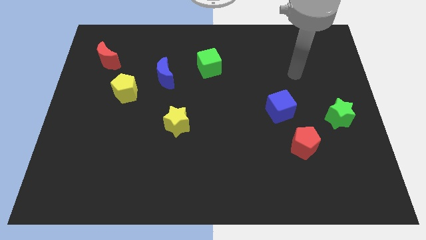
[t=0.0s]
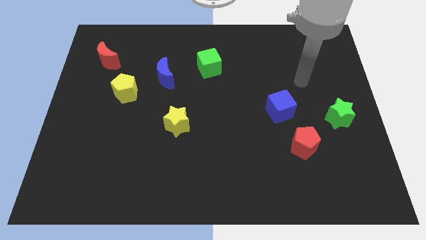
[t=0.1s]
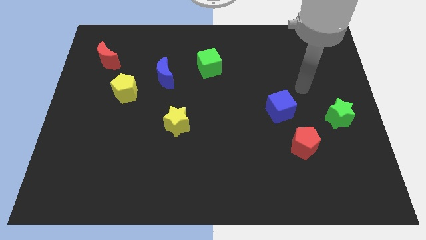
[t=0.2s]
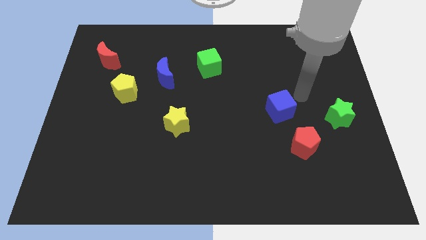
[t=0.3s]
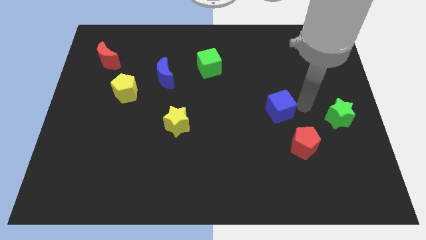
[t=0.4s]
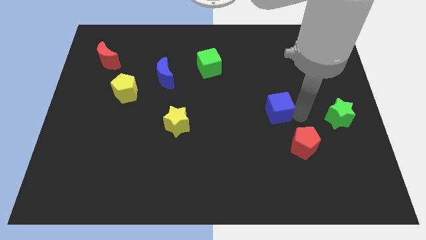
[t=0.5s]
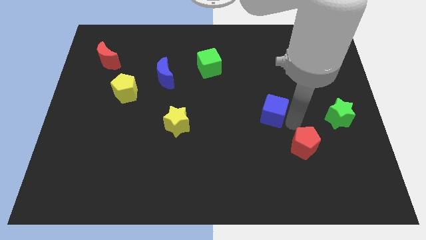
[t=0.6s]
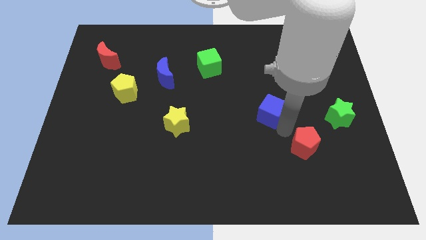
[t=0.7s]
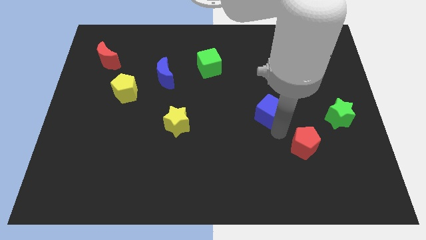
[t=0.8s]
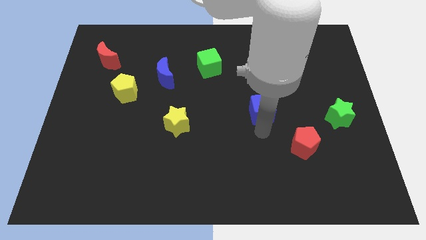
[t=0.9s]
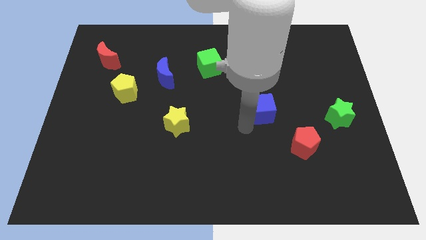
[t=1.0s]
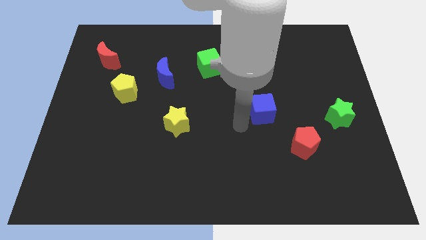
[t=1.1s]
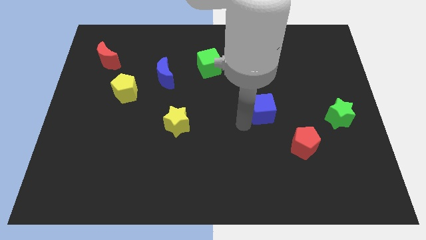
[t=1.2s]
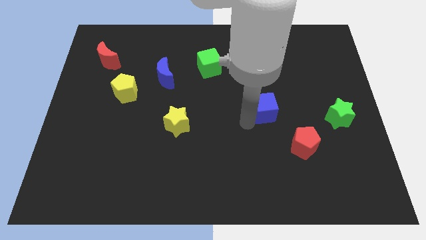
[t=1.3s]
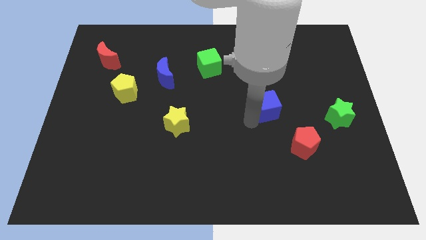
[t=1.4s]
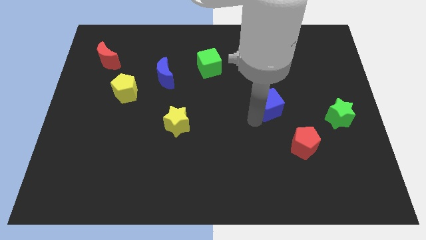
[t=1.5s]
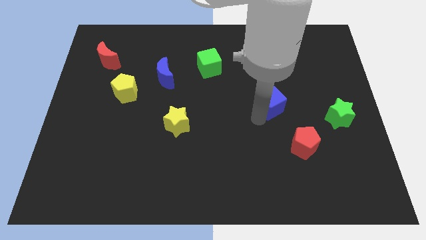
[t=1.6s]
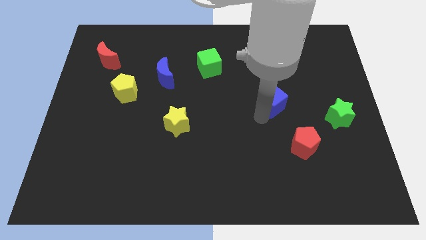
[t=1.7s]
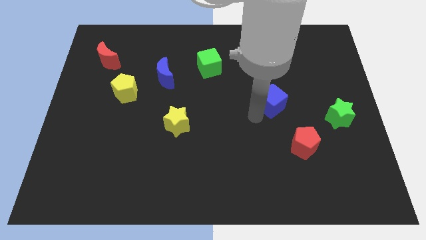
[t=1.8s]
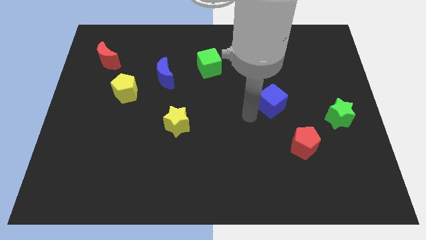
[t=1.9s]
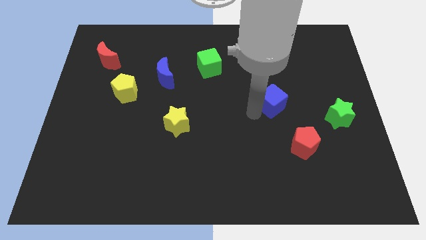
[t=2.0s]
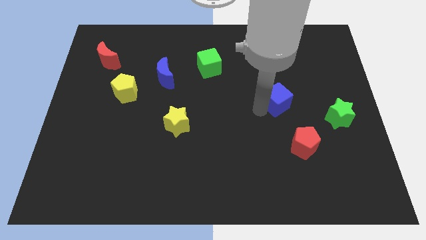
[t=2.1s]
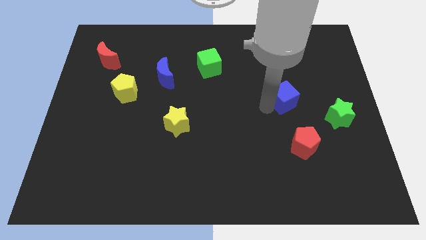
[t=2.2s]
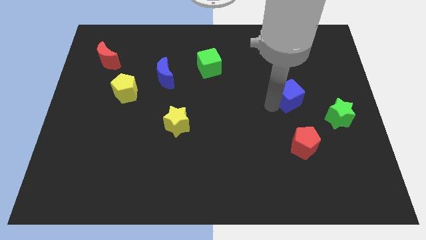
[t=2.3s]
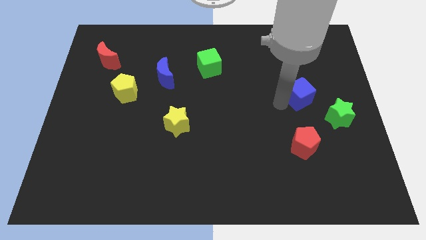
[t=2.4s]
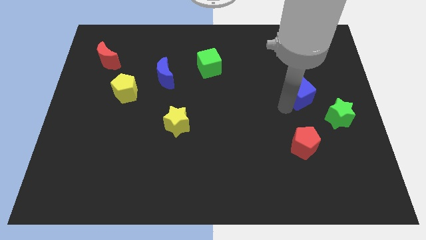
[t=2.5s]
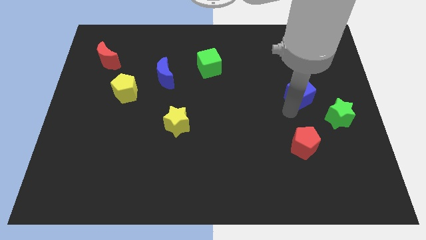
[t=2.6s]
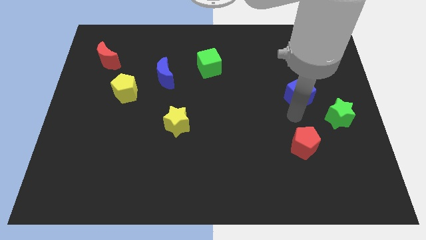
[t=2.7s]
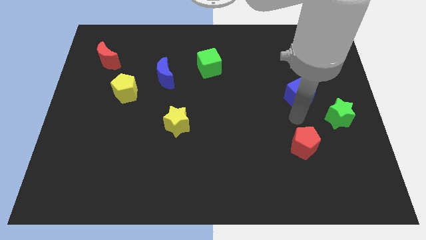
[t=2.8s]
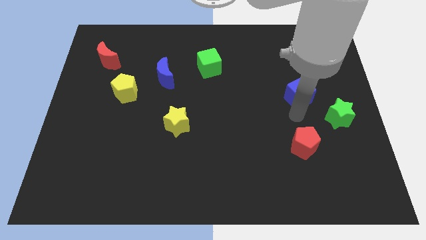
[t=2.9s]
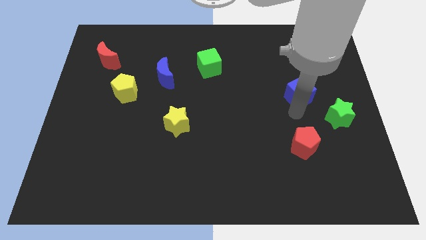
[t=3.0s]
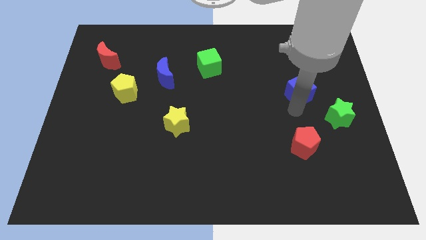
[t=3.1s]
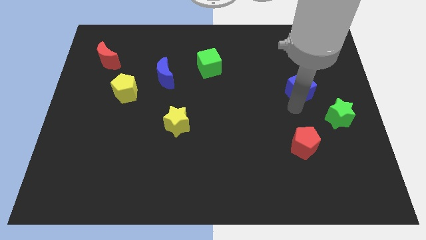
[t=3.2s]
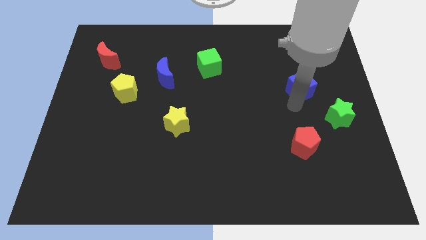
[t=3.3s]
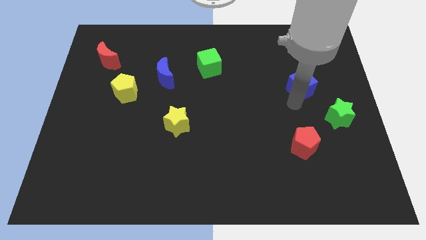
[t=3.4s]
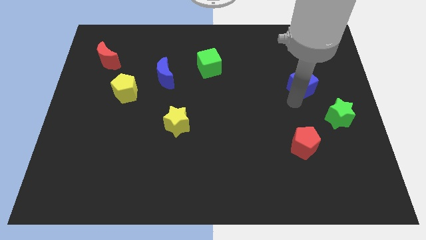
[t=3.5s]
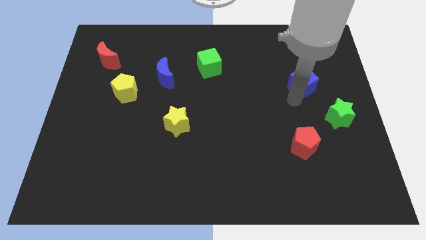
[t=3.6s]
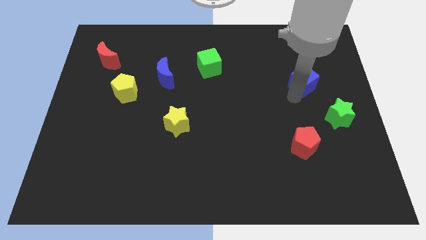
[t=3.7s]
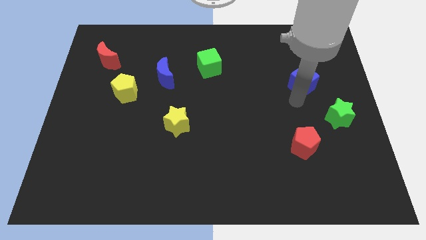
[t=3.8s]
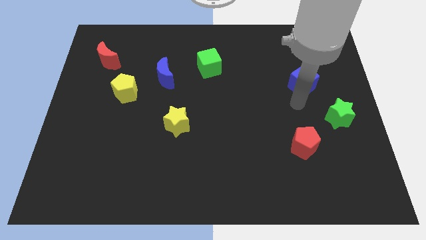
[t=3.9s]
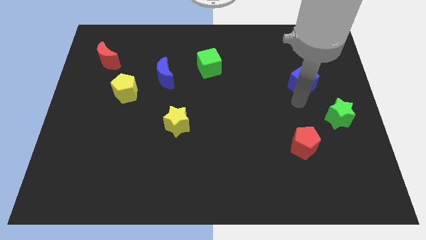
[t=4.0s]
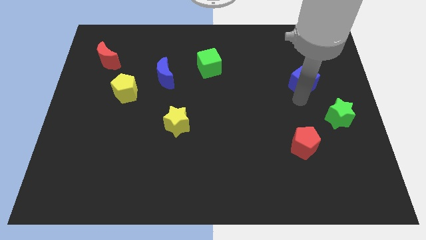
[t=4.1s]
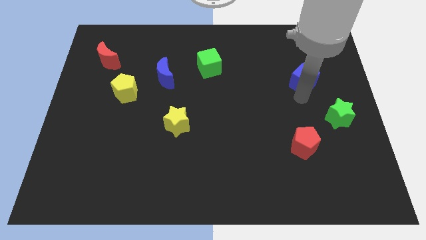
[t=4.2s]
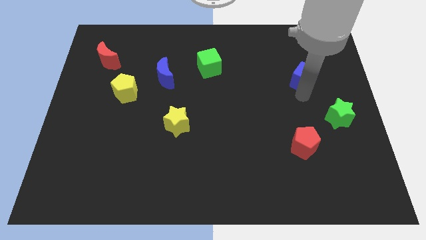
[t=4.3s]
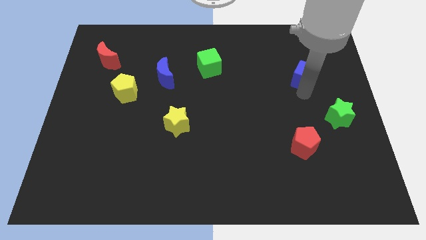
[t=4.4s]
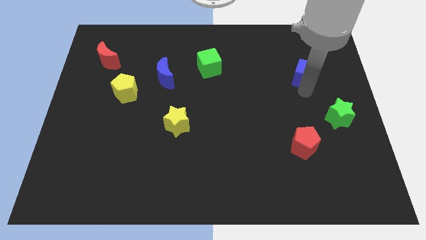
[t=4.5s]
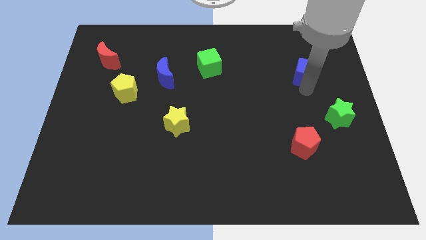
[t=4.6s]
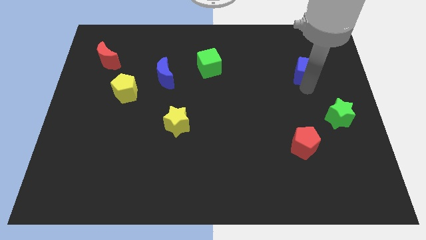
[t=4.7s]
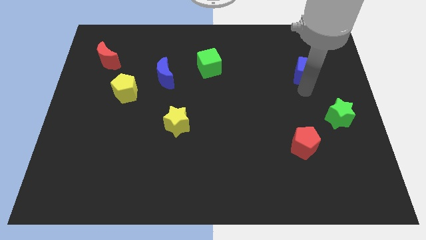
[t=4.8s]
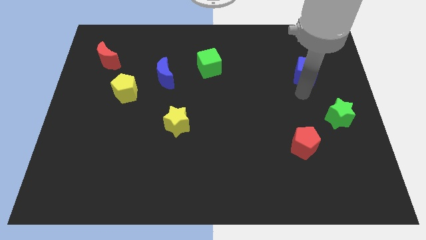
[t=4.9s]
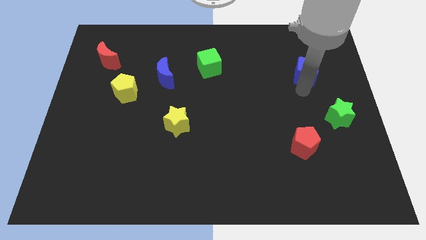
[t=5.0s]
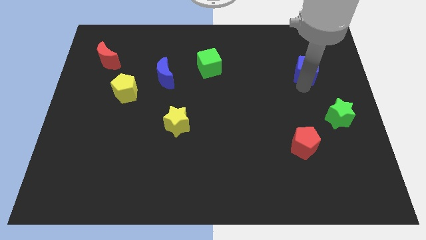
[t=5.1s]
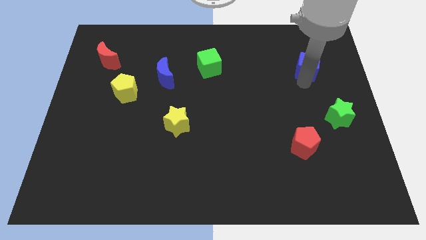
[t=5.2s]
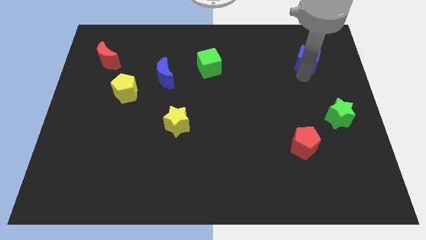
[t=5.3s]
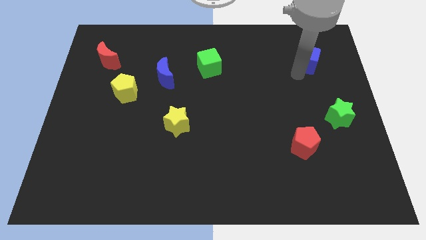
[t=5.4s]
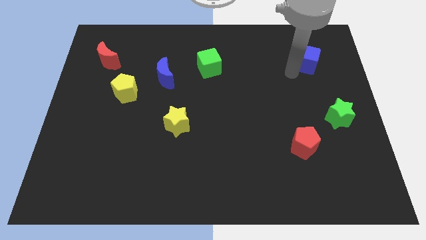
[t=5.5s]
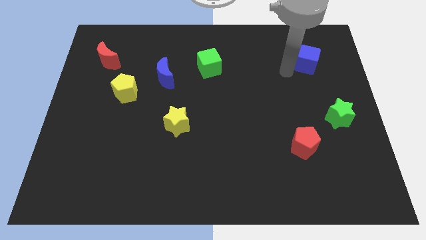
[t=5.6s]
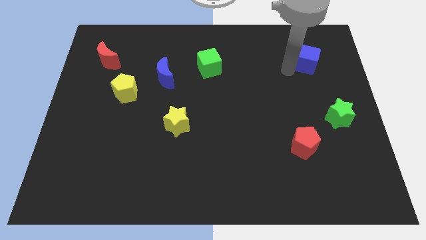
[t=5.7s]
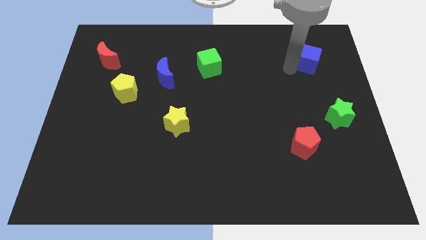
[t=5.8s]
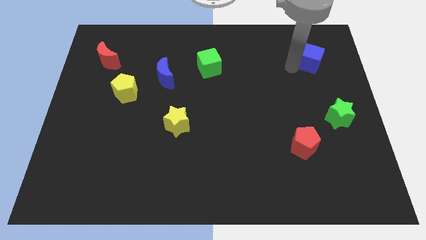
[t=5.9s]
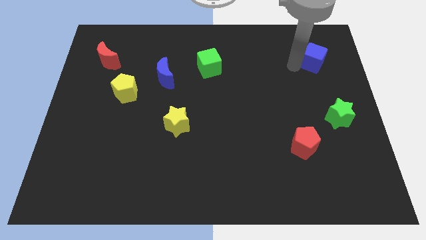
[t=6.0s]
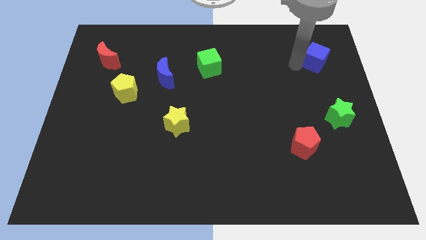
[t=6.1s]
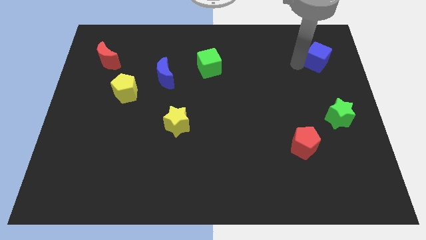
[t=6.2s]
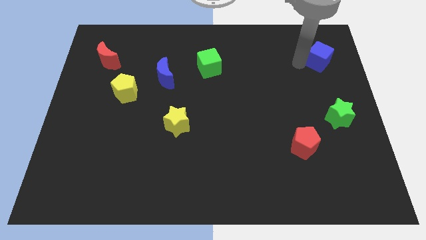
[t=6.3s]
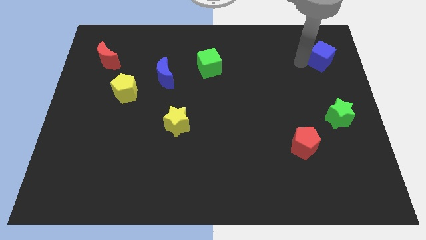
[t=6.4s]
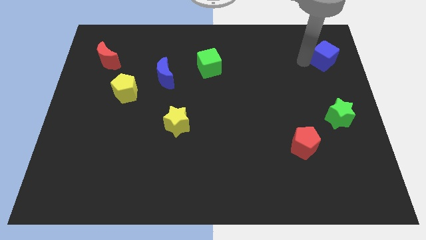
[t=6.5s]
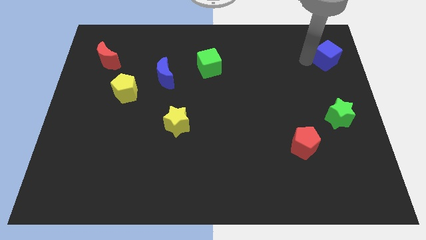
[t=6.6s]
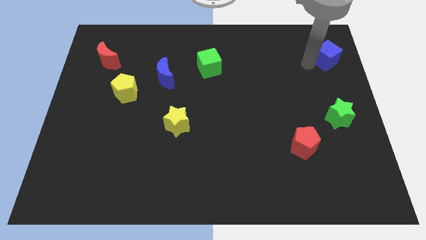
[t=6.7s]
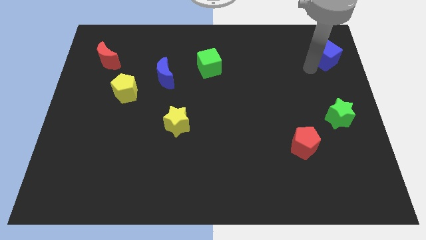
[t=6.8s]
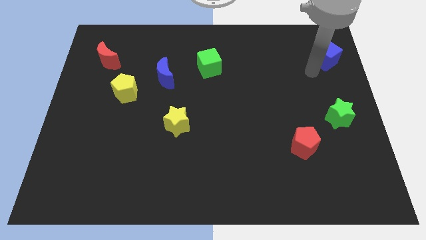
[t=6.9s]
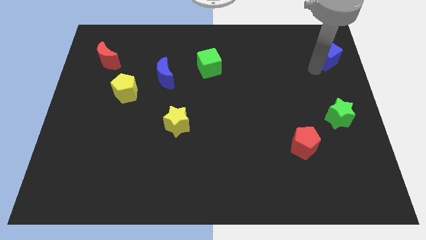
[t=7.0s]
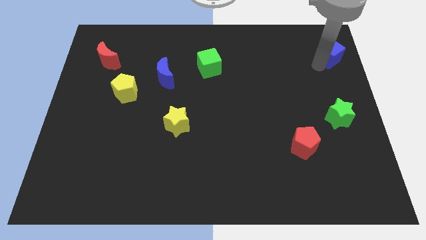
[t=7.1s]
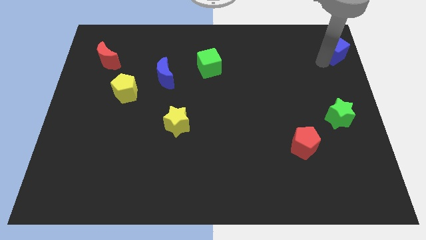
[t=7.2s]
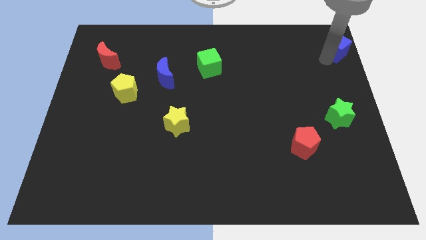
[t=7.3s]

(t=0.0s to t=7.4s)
put the blue cube to the upper right corner
